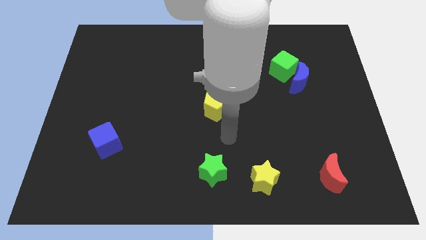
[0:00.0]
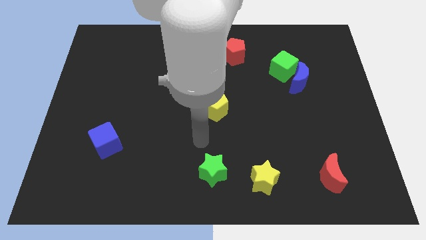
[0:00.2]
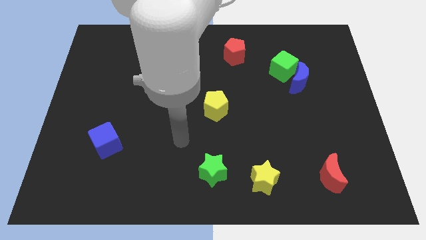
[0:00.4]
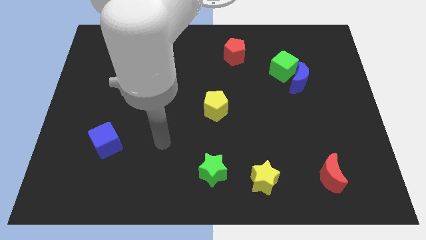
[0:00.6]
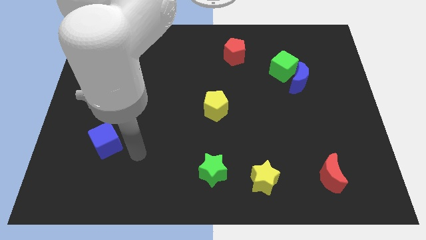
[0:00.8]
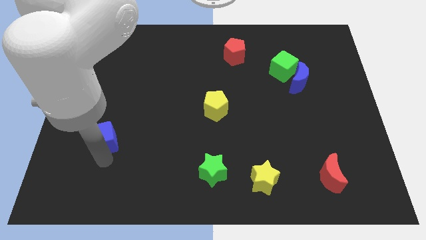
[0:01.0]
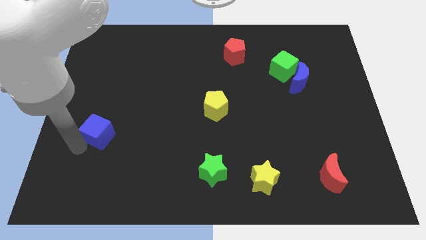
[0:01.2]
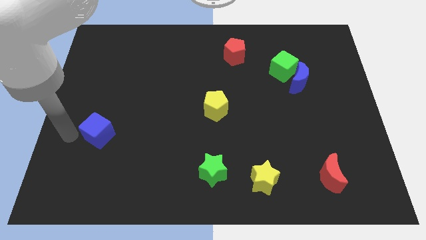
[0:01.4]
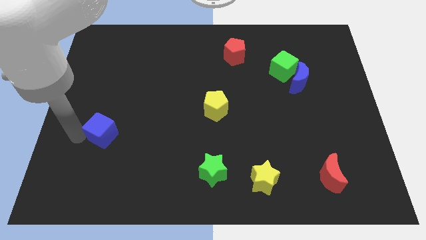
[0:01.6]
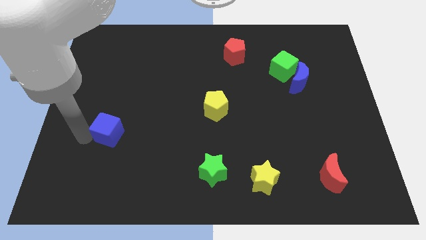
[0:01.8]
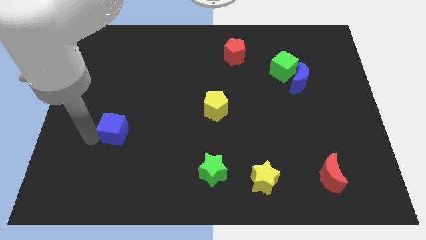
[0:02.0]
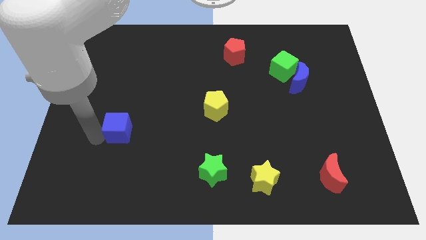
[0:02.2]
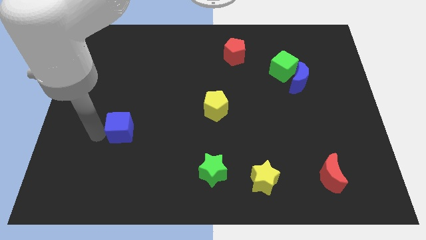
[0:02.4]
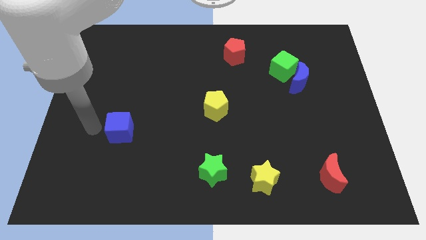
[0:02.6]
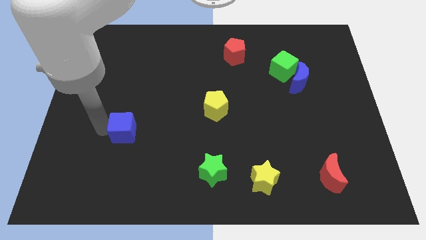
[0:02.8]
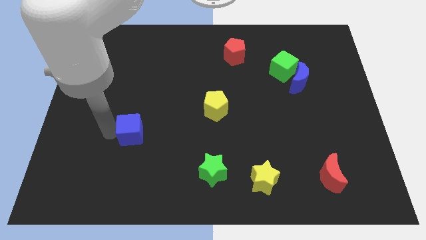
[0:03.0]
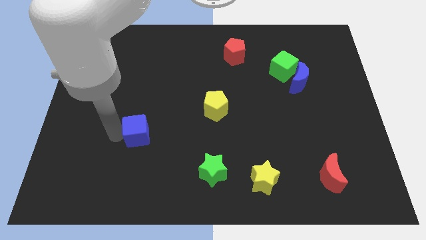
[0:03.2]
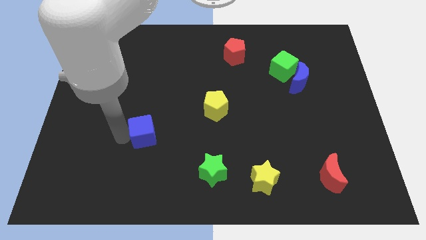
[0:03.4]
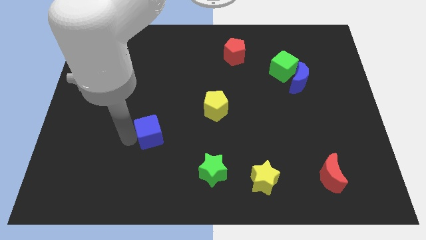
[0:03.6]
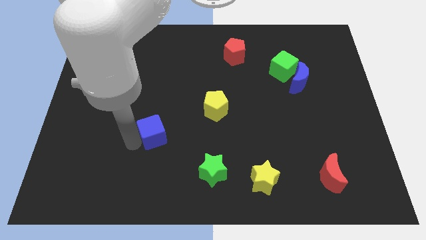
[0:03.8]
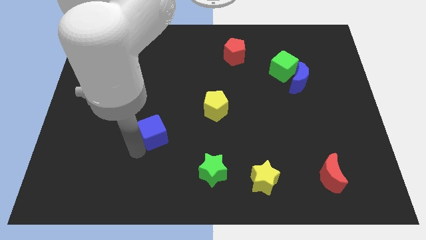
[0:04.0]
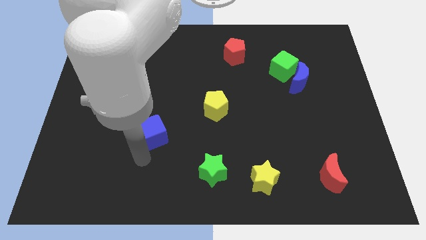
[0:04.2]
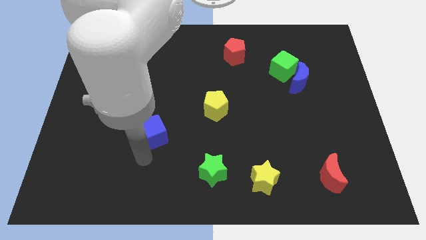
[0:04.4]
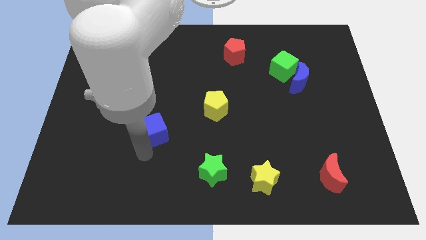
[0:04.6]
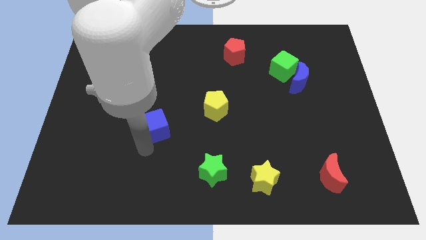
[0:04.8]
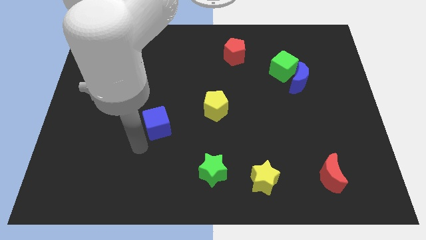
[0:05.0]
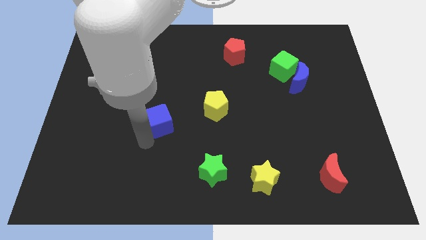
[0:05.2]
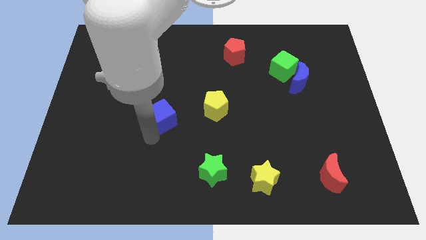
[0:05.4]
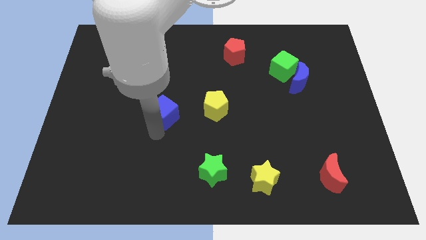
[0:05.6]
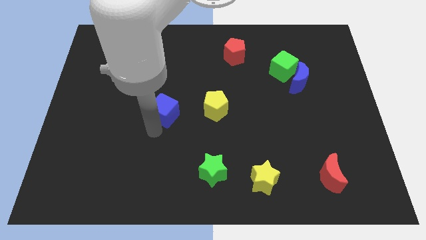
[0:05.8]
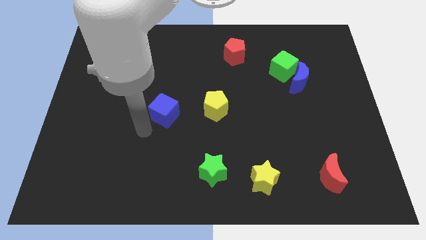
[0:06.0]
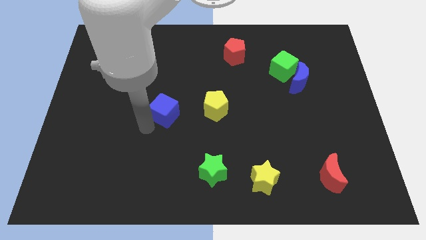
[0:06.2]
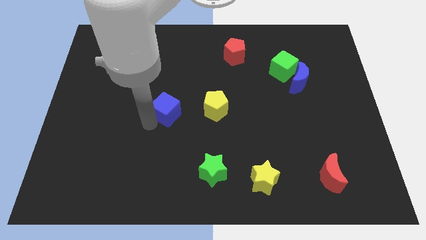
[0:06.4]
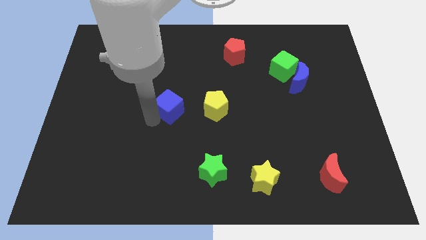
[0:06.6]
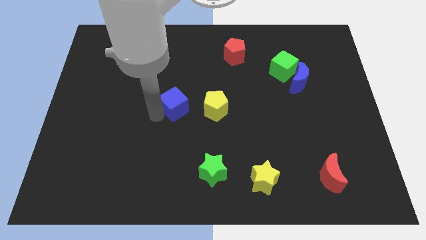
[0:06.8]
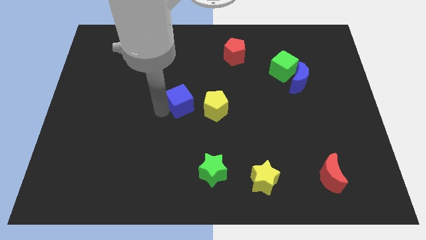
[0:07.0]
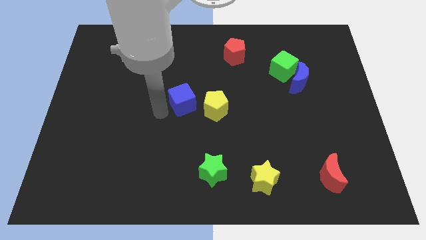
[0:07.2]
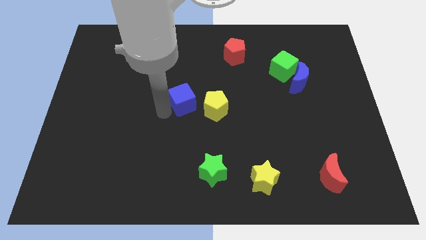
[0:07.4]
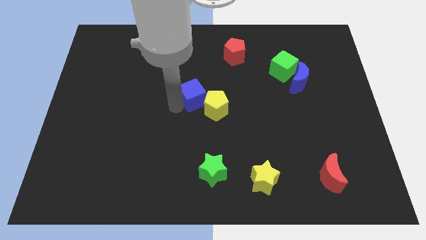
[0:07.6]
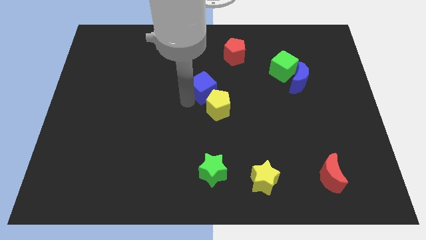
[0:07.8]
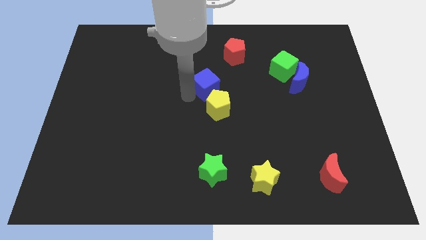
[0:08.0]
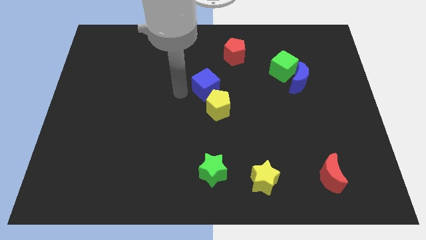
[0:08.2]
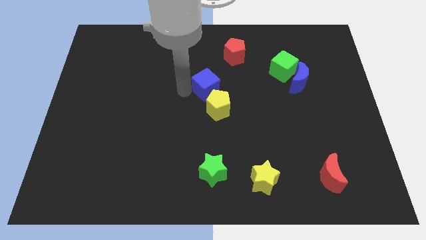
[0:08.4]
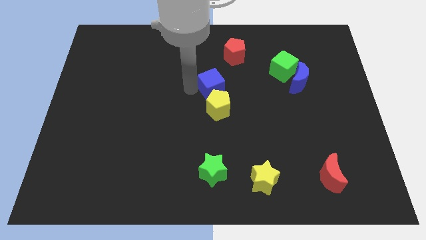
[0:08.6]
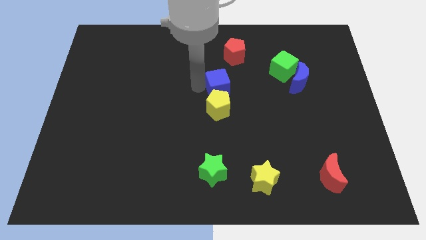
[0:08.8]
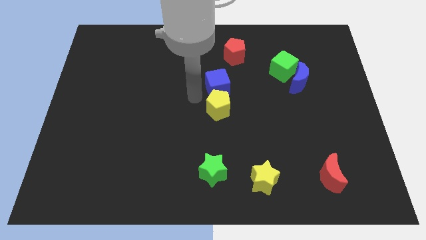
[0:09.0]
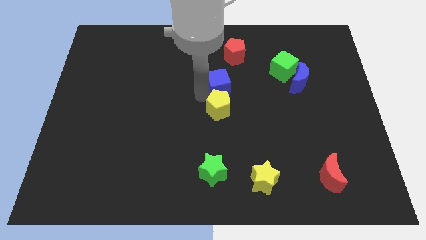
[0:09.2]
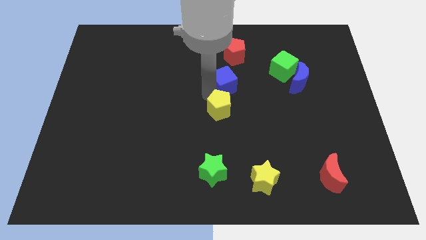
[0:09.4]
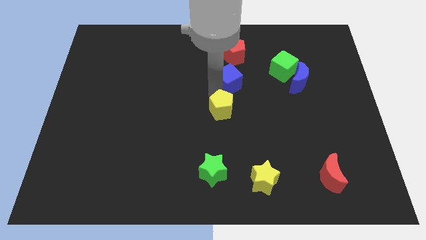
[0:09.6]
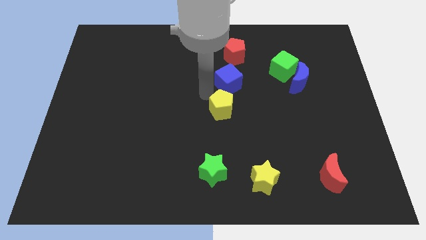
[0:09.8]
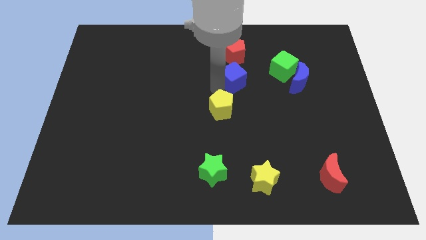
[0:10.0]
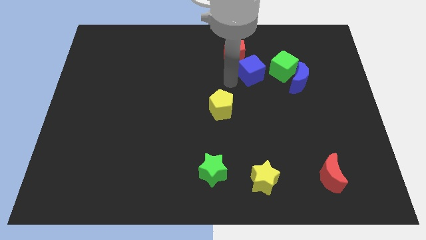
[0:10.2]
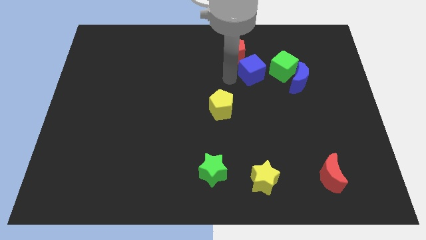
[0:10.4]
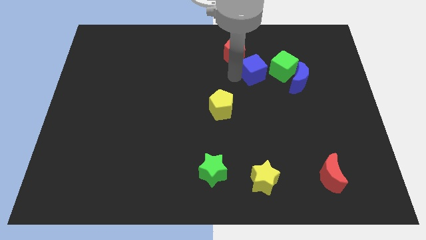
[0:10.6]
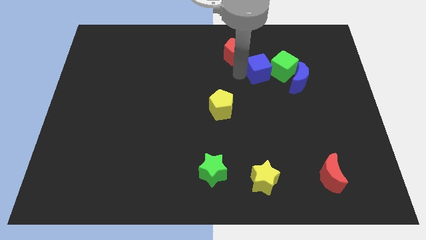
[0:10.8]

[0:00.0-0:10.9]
push the blue cube diagonally up and to the left of the blue moon
